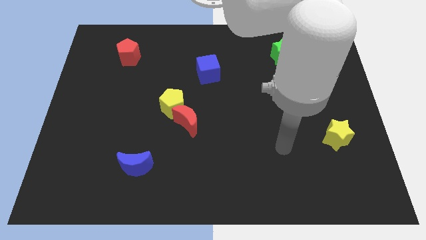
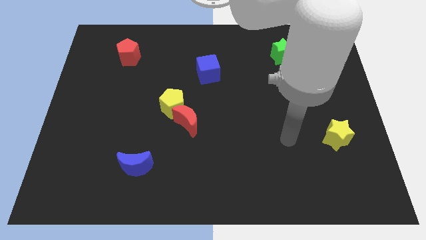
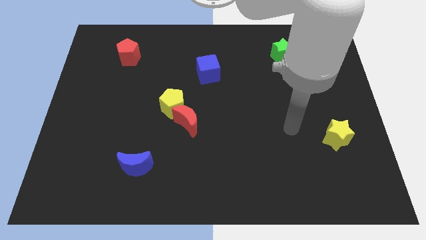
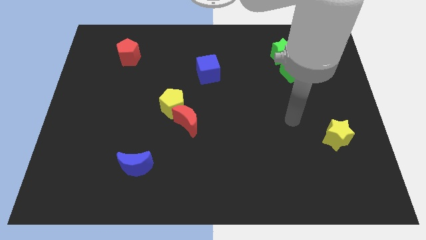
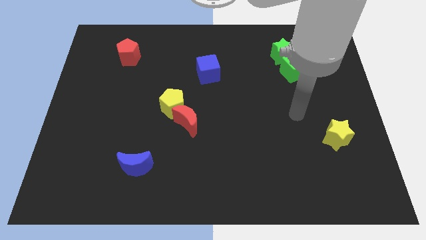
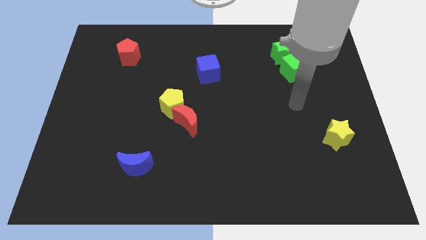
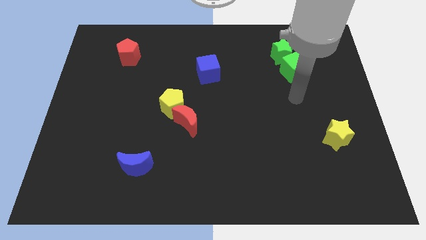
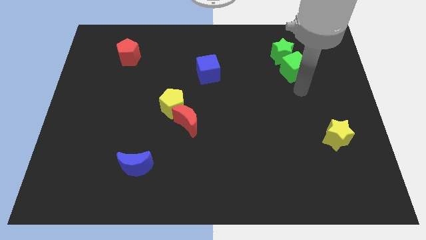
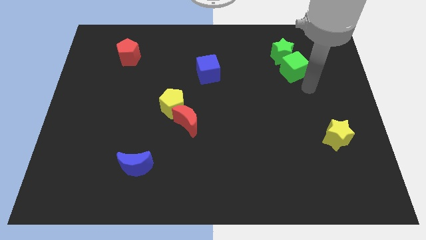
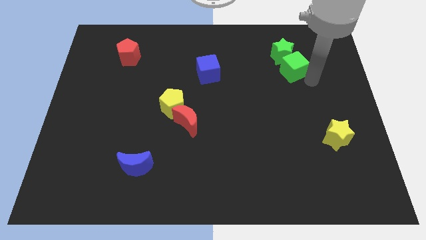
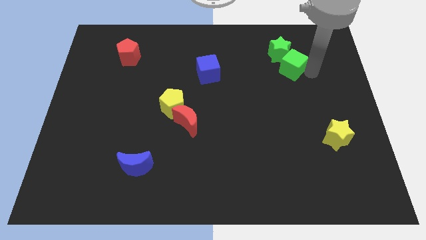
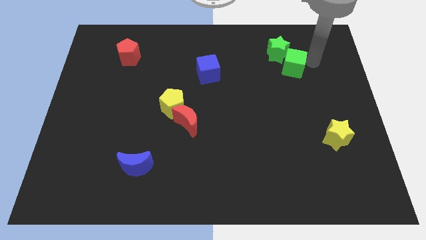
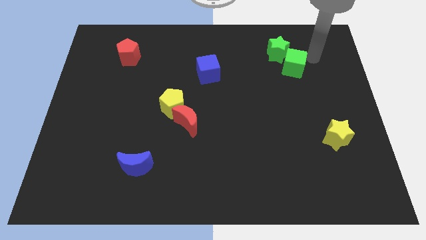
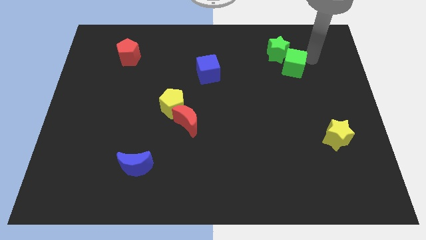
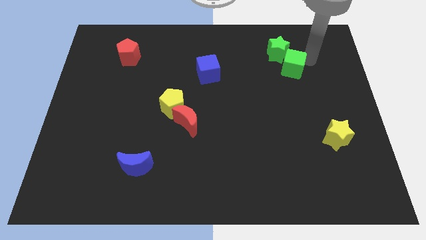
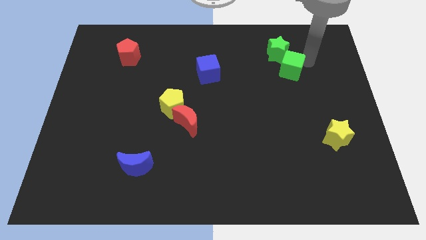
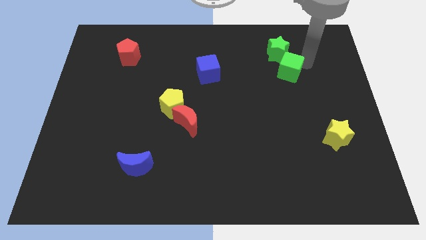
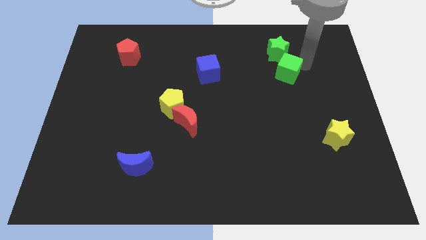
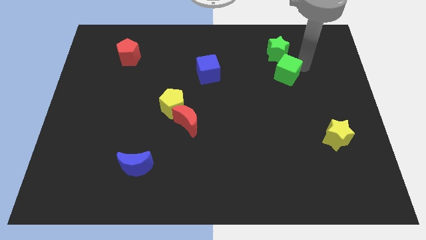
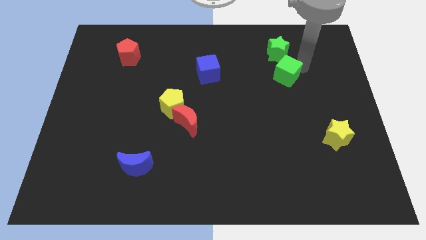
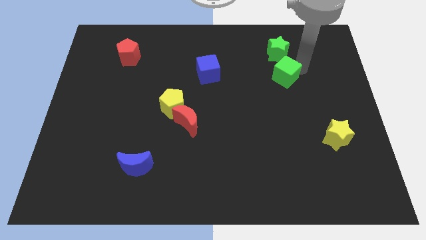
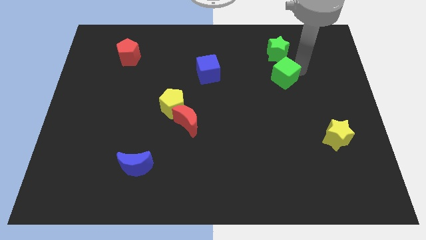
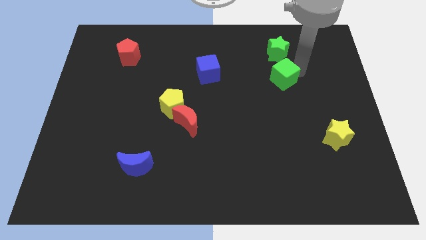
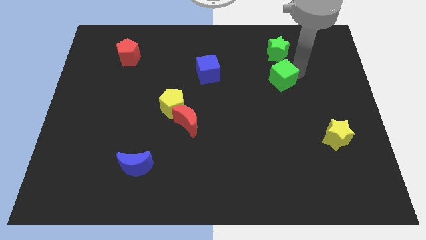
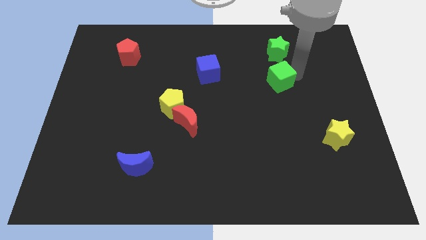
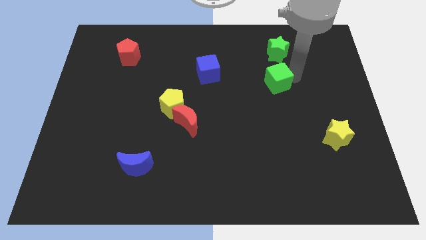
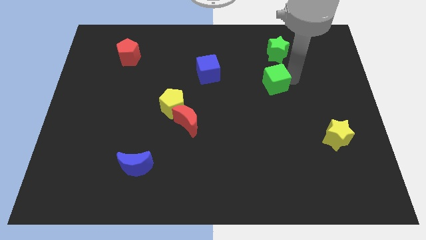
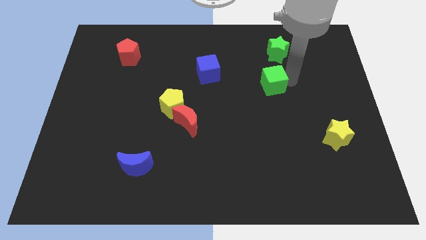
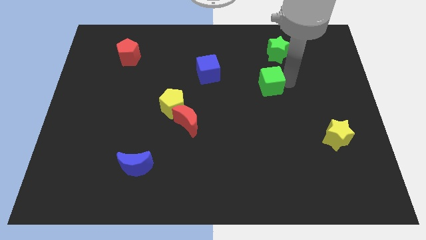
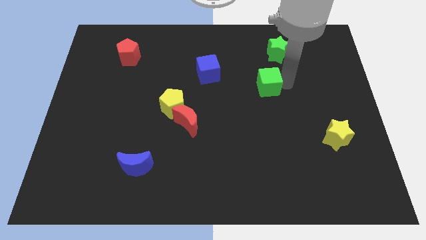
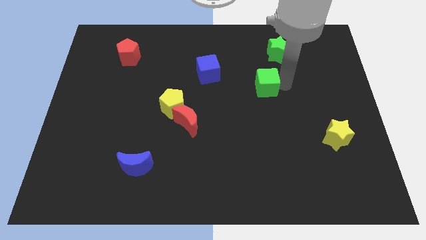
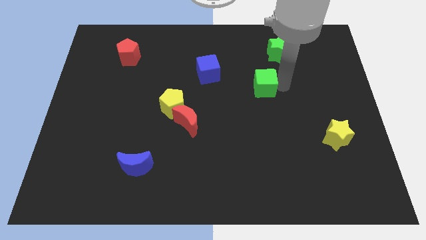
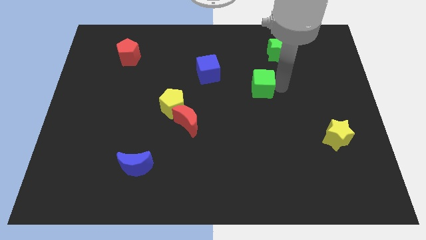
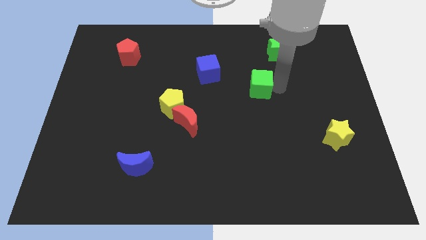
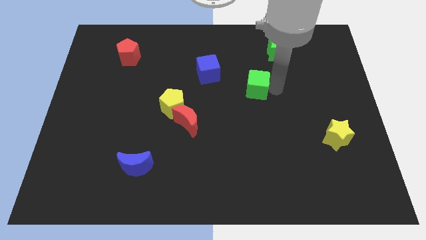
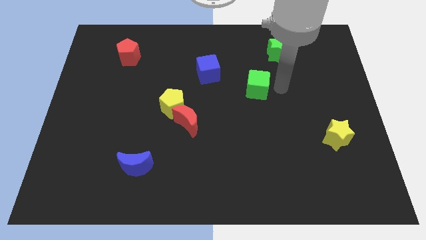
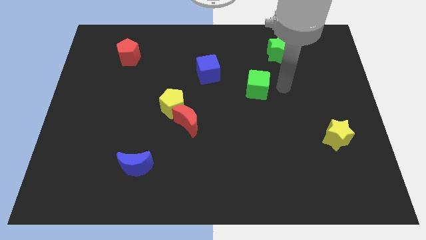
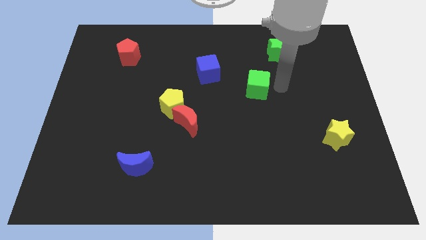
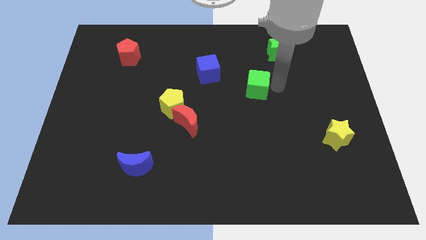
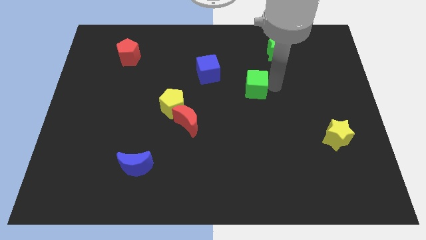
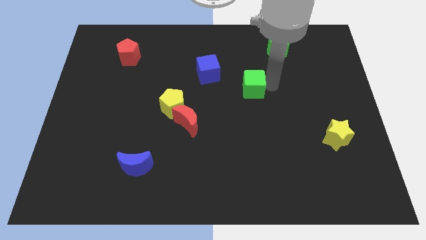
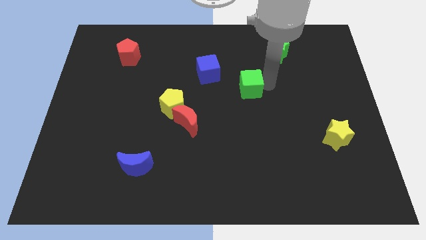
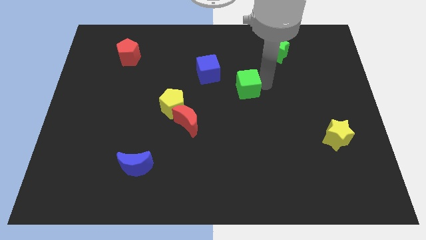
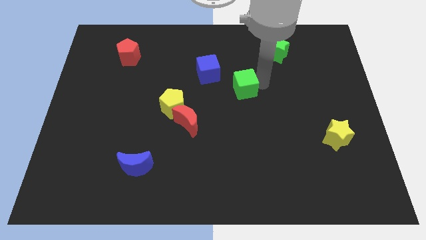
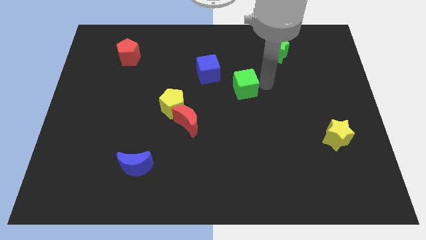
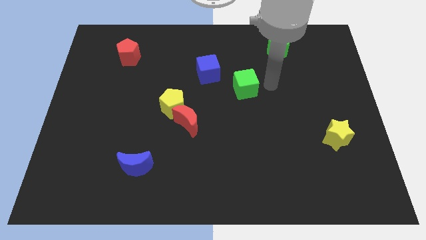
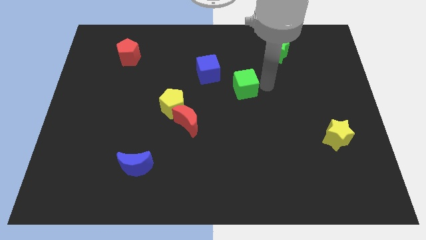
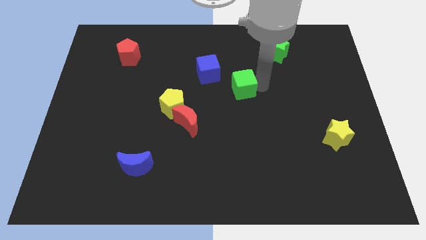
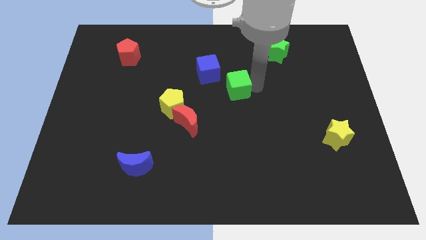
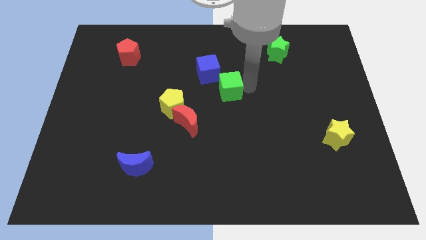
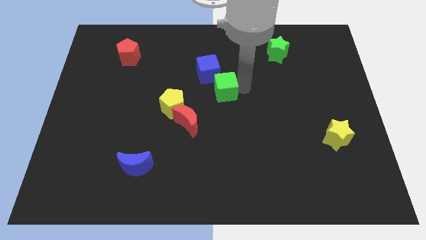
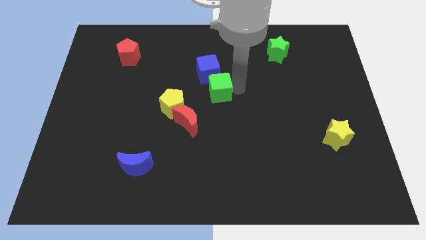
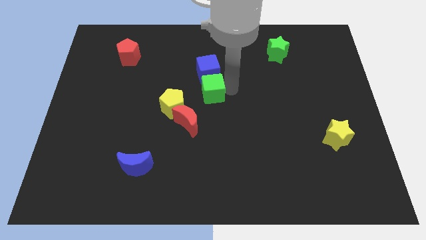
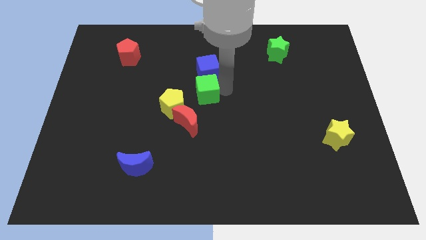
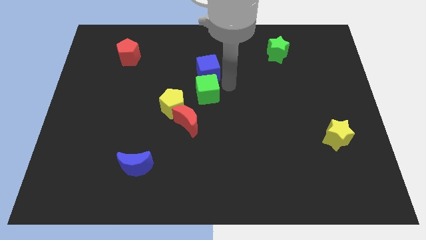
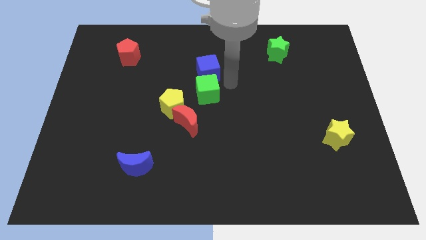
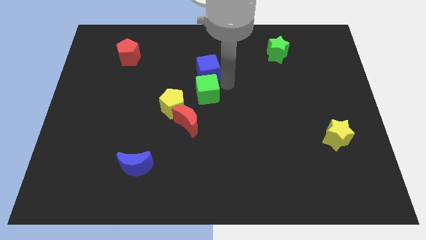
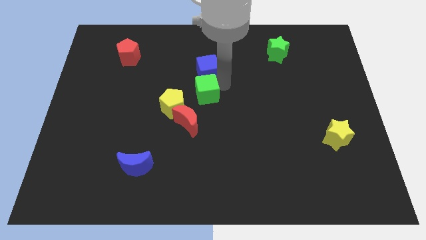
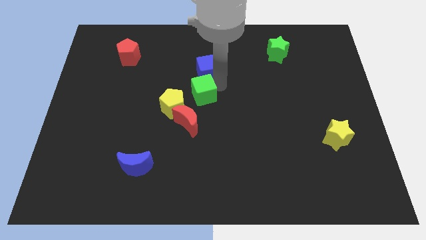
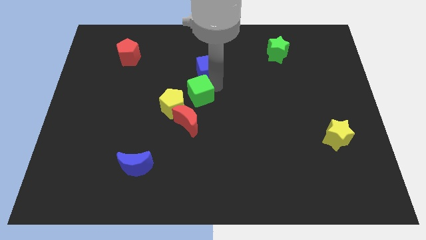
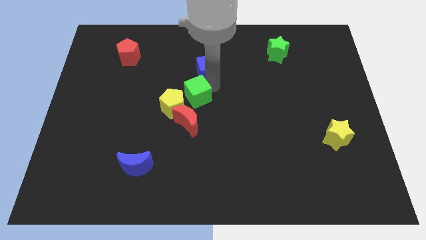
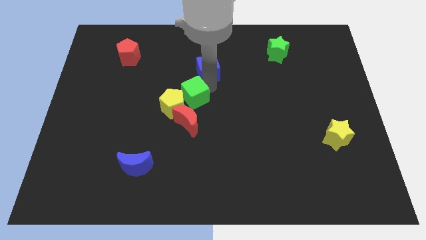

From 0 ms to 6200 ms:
move the green cube towards the yellow pentagon

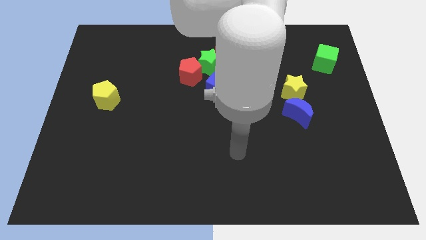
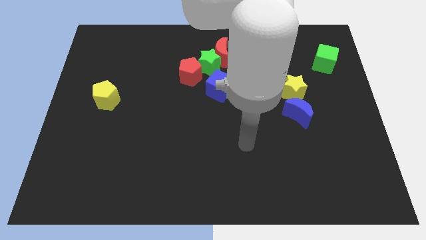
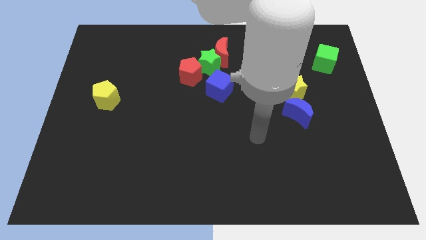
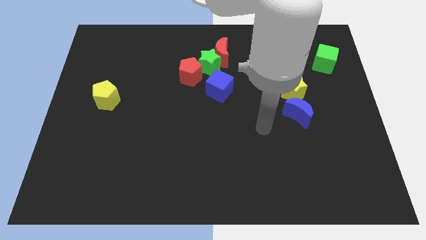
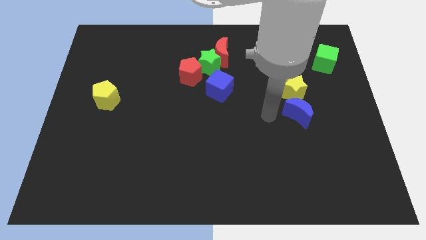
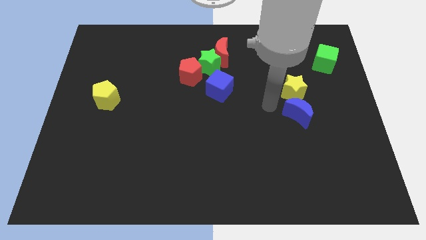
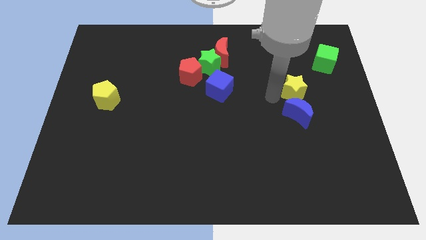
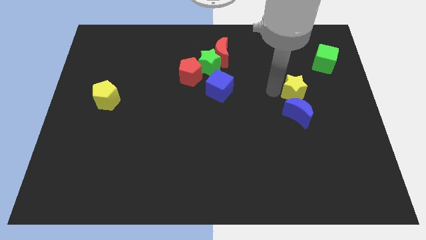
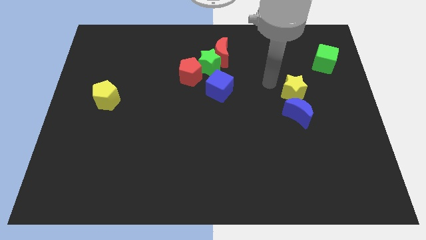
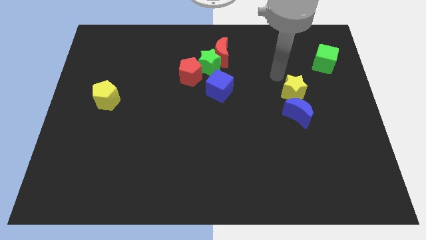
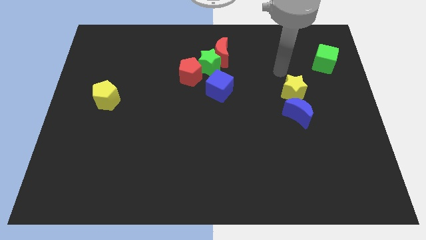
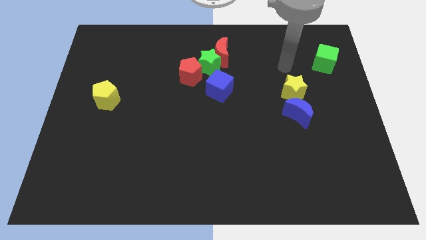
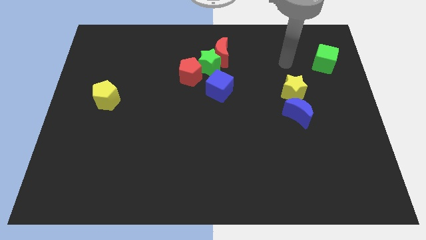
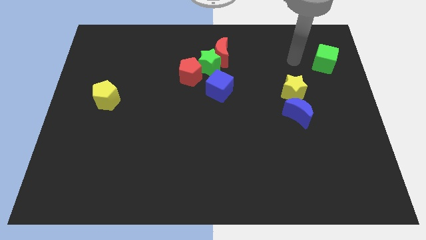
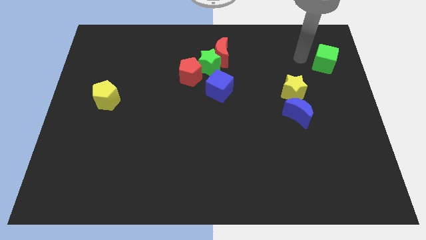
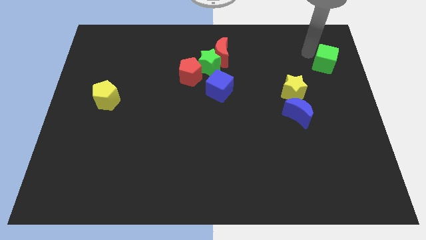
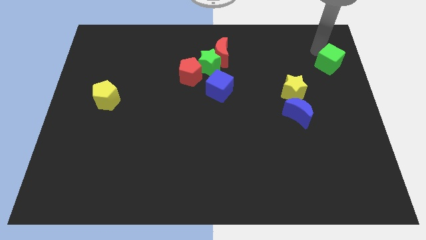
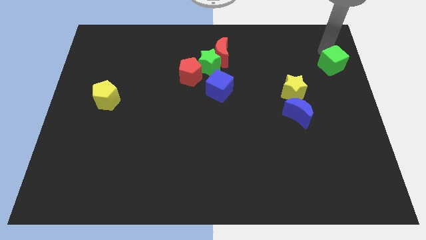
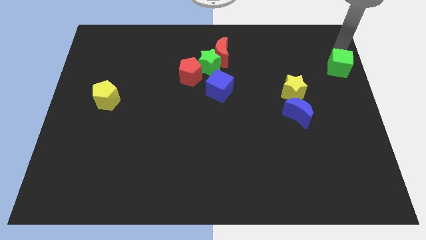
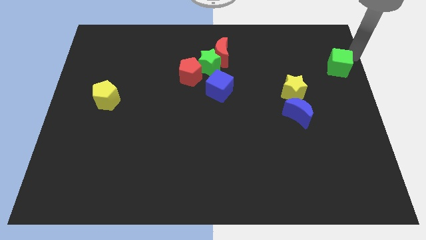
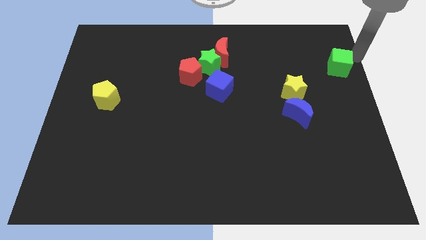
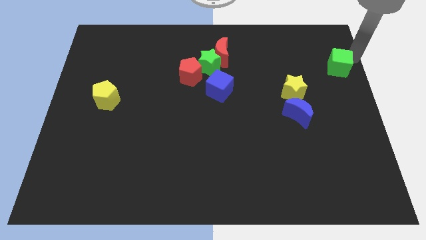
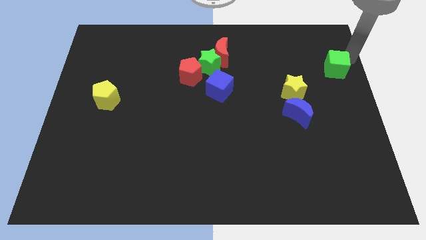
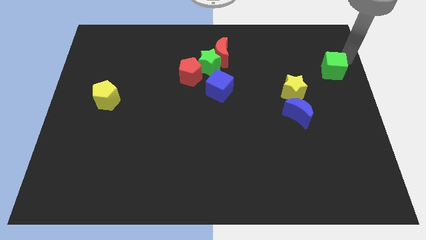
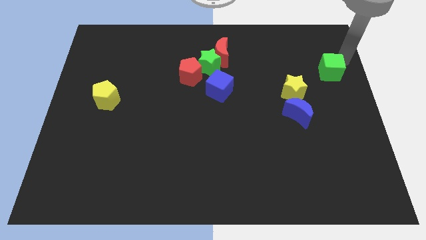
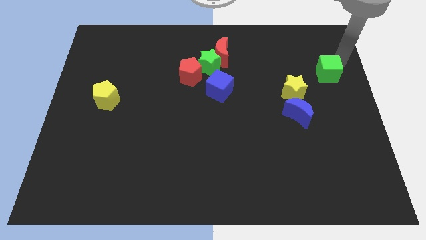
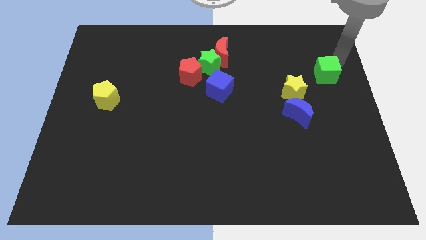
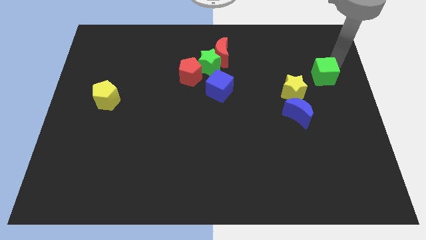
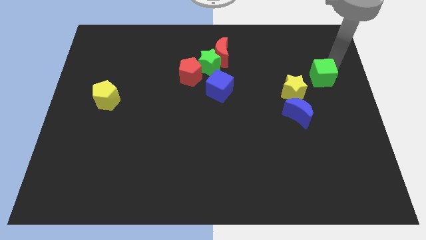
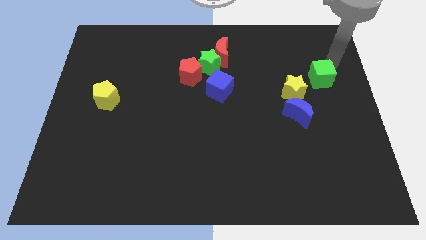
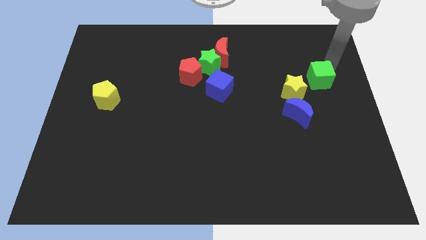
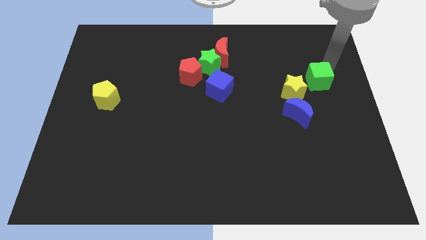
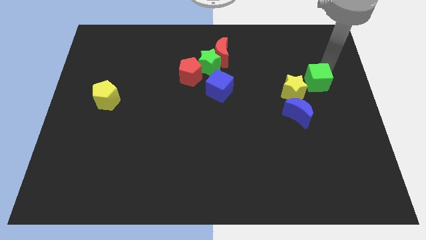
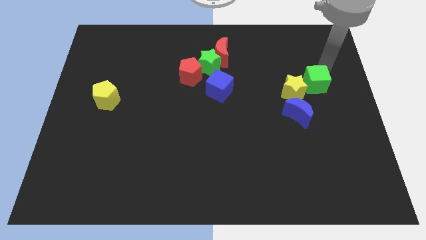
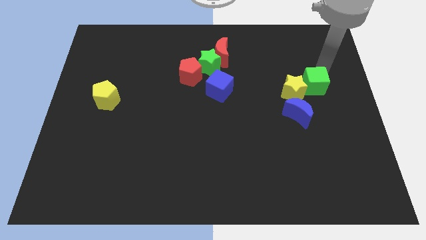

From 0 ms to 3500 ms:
move the green cube towards the yellow star
